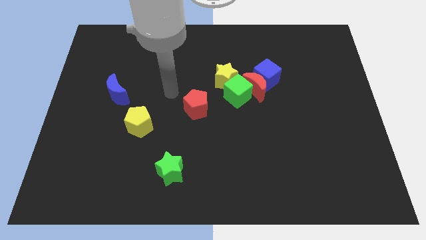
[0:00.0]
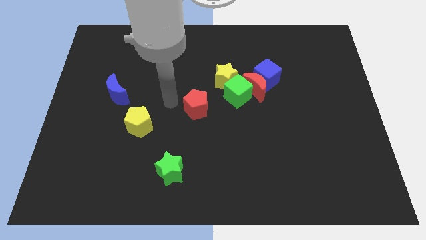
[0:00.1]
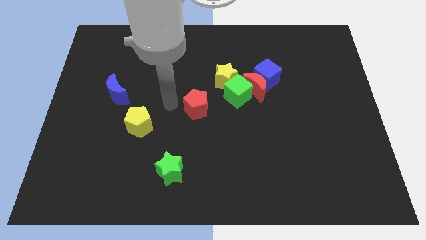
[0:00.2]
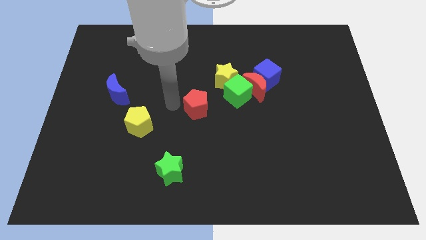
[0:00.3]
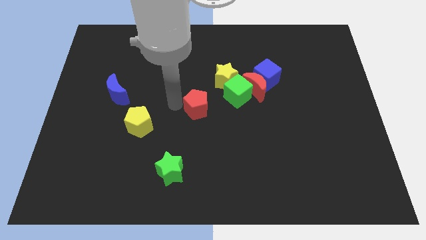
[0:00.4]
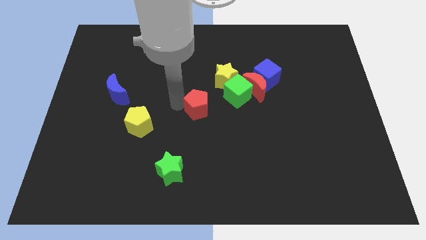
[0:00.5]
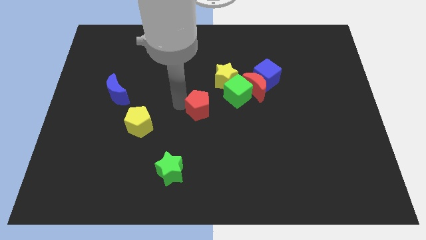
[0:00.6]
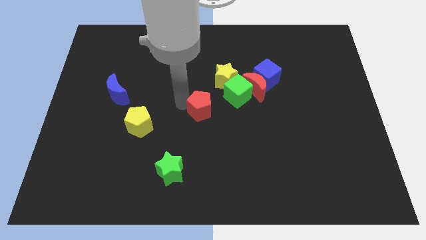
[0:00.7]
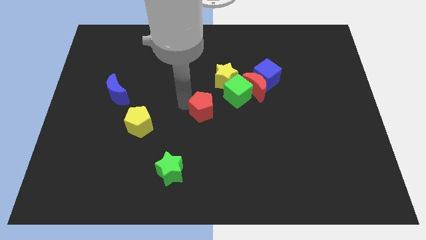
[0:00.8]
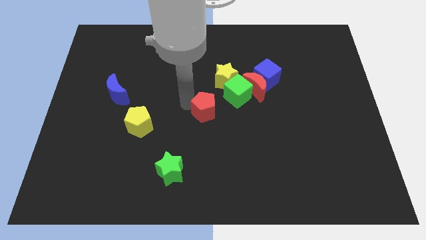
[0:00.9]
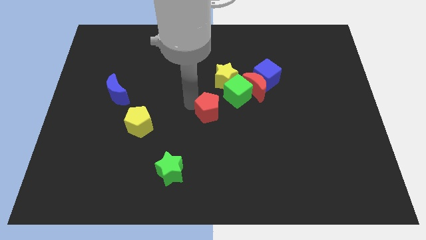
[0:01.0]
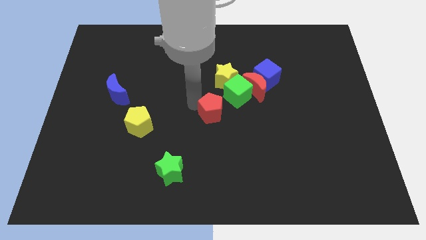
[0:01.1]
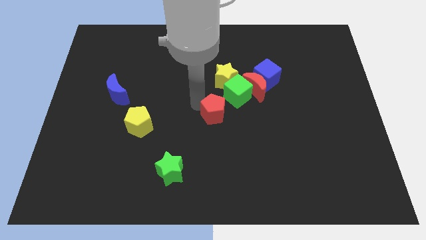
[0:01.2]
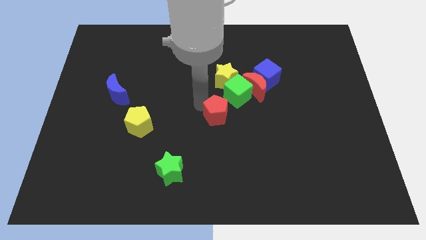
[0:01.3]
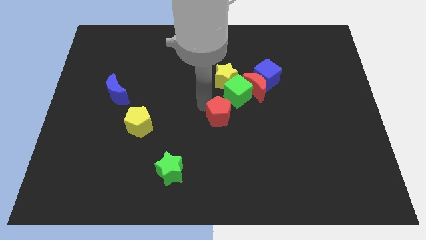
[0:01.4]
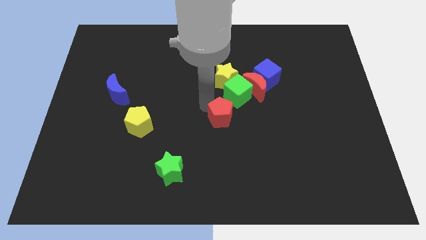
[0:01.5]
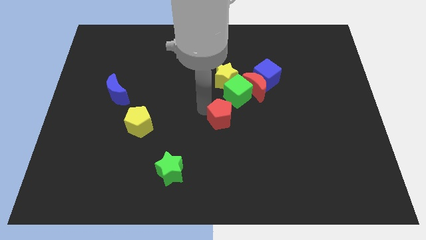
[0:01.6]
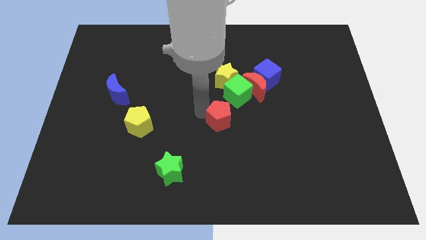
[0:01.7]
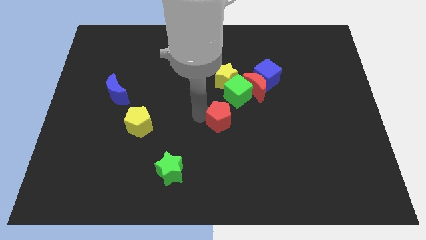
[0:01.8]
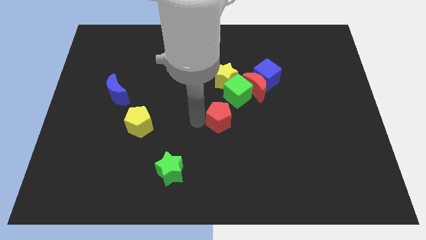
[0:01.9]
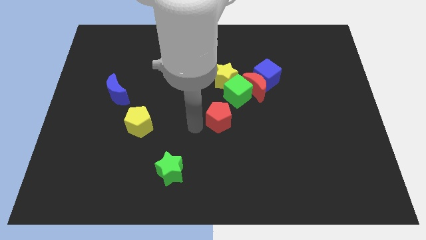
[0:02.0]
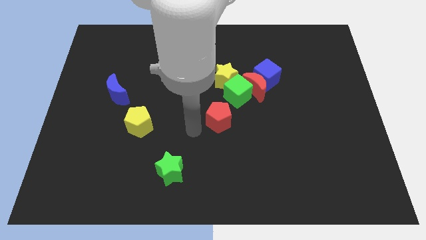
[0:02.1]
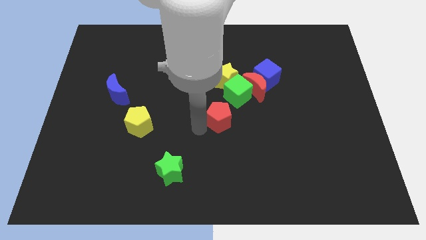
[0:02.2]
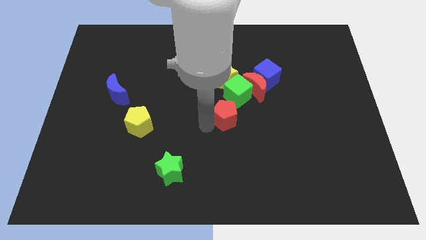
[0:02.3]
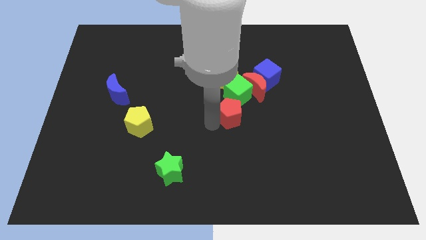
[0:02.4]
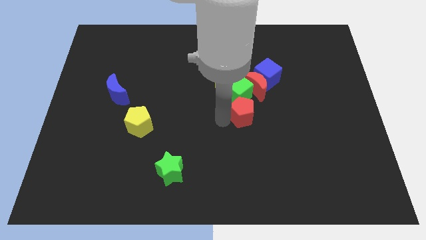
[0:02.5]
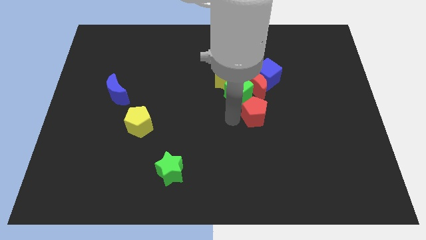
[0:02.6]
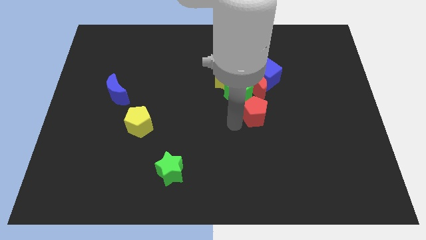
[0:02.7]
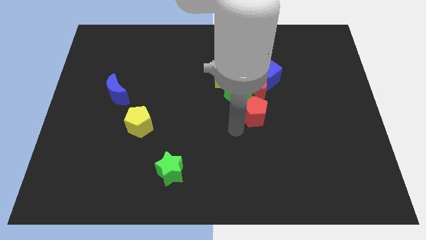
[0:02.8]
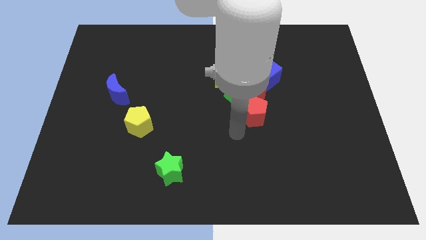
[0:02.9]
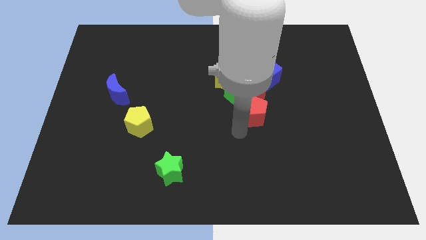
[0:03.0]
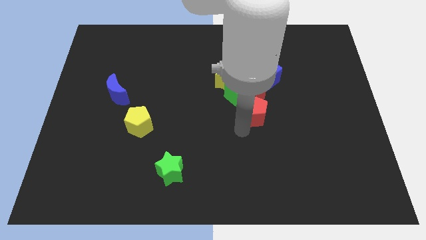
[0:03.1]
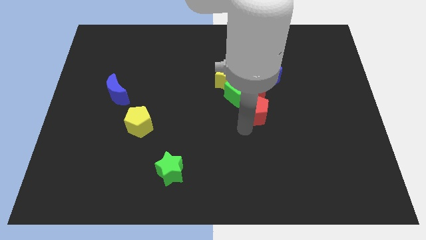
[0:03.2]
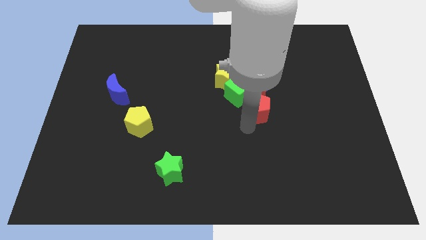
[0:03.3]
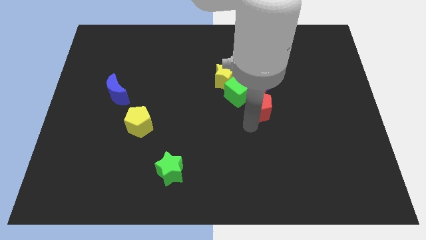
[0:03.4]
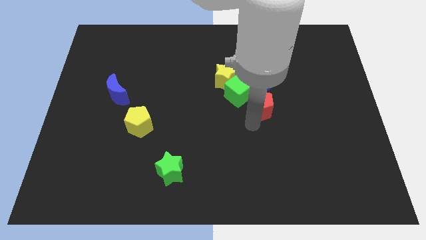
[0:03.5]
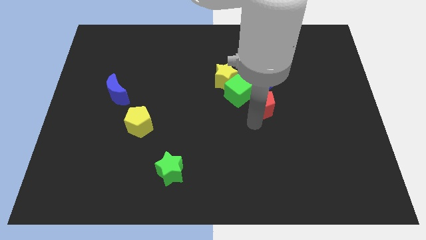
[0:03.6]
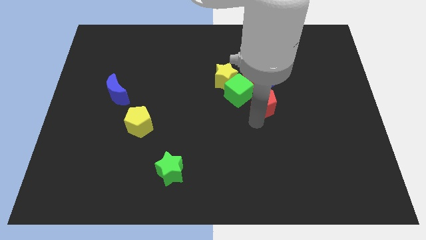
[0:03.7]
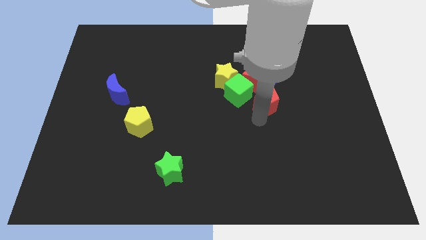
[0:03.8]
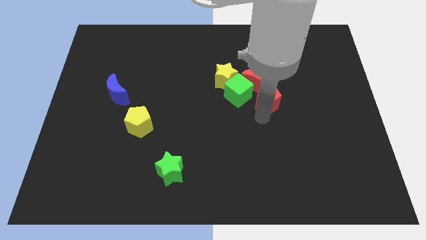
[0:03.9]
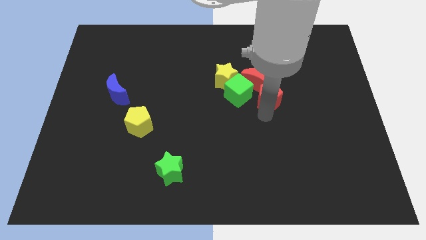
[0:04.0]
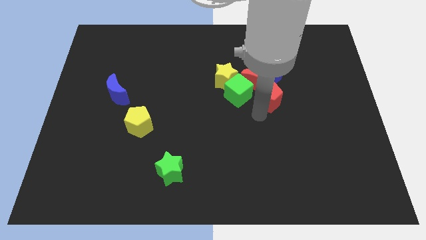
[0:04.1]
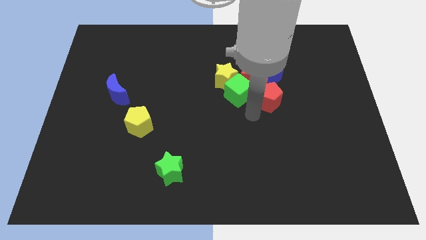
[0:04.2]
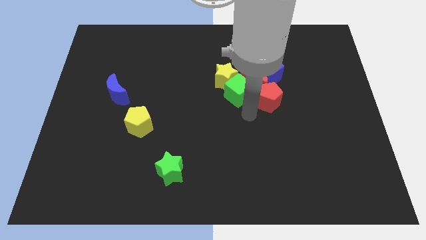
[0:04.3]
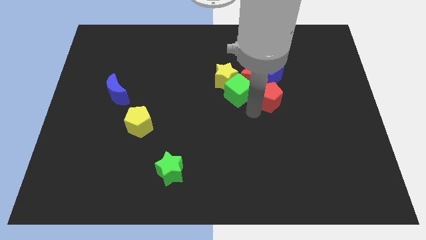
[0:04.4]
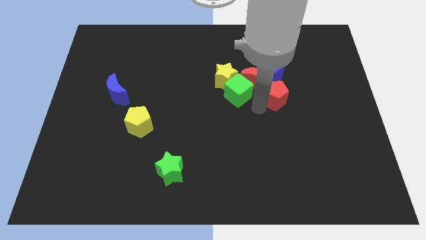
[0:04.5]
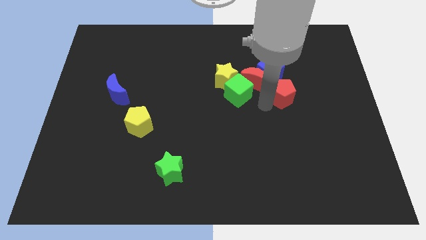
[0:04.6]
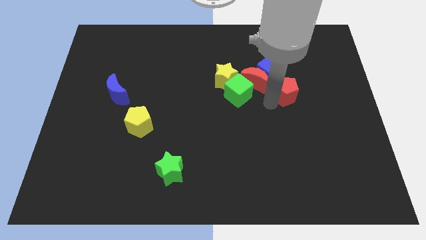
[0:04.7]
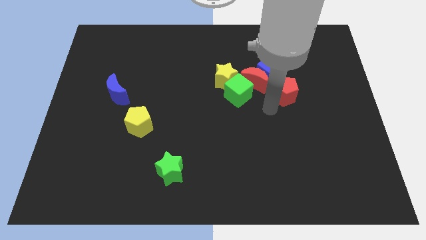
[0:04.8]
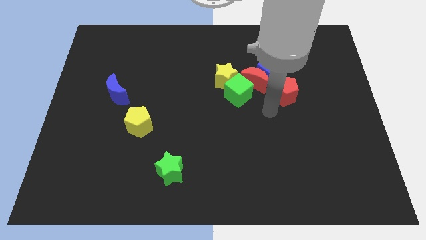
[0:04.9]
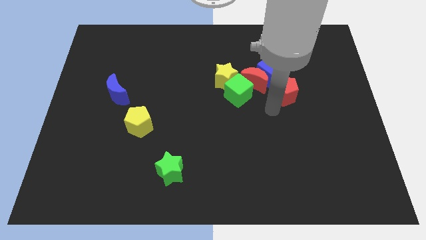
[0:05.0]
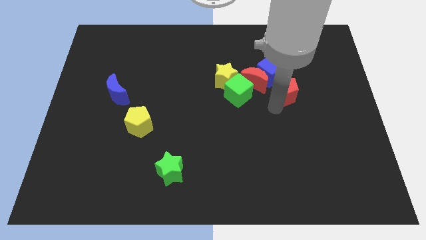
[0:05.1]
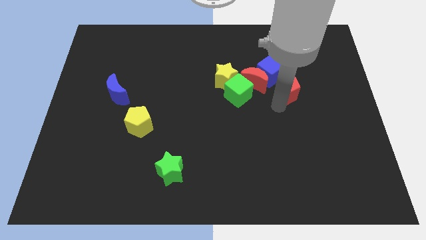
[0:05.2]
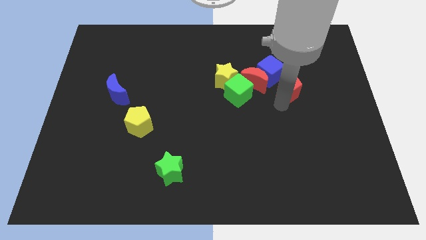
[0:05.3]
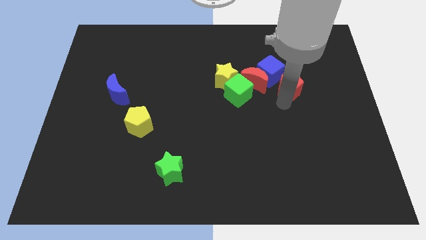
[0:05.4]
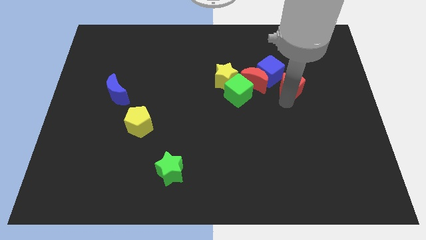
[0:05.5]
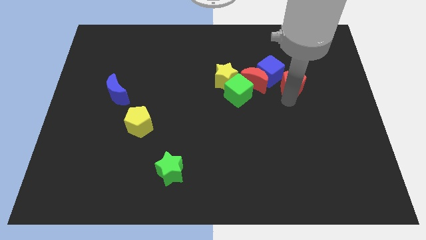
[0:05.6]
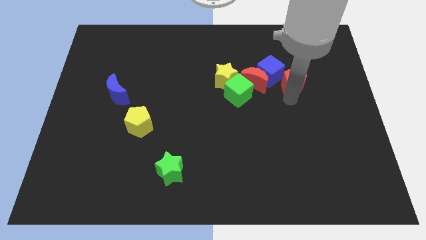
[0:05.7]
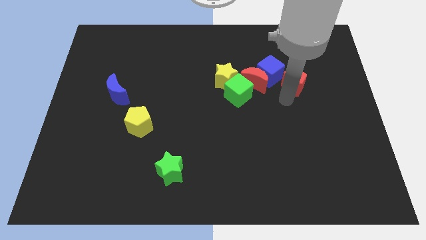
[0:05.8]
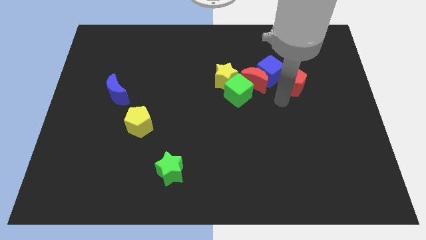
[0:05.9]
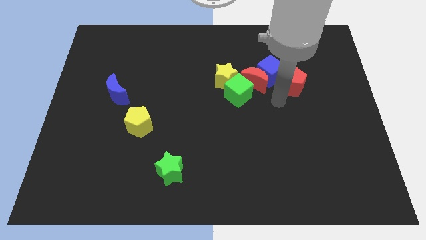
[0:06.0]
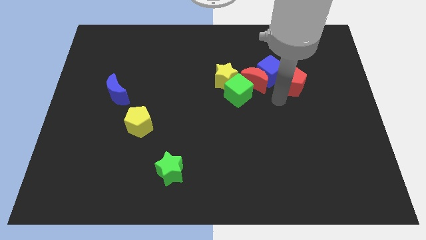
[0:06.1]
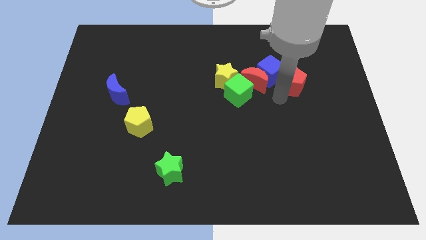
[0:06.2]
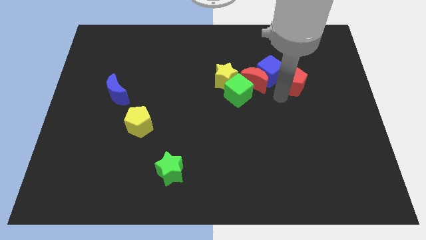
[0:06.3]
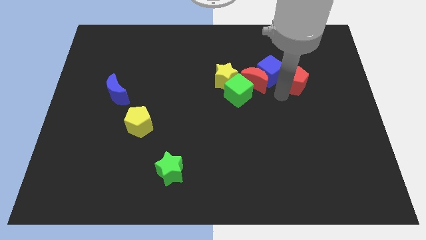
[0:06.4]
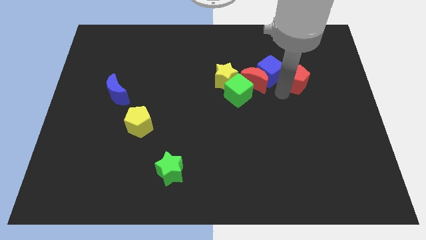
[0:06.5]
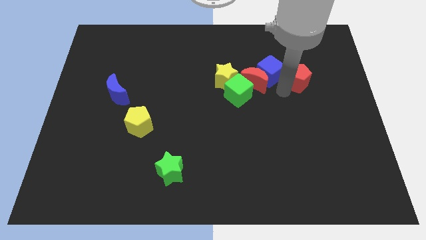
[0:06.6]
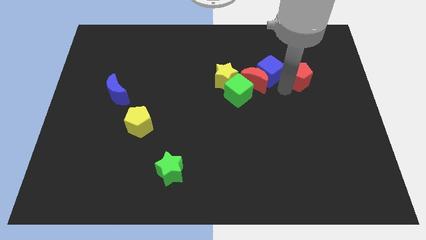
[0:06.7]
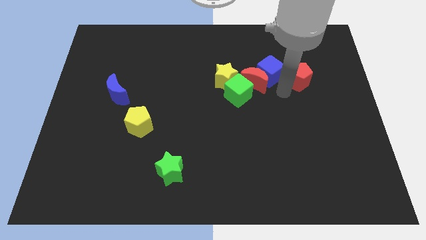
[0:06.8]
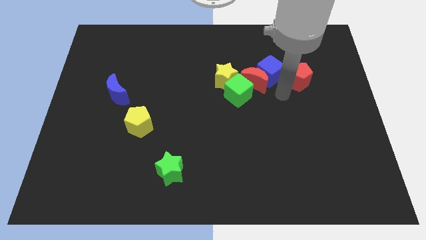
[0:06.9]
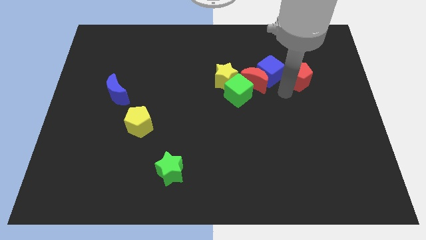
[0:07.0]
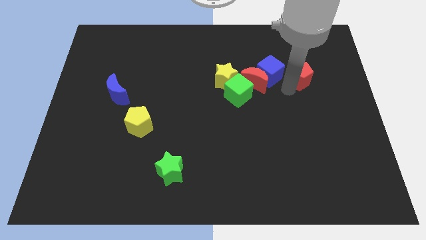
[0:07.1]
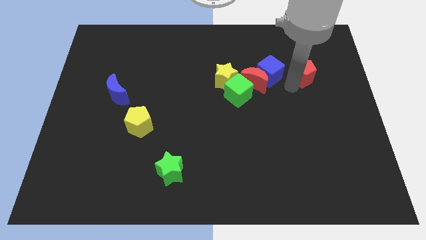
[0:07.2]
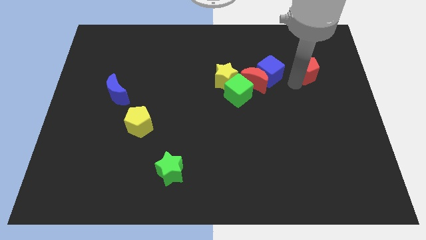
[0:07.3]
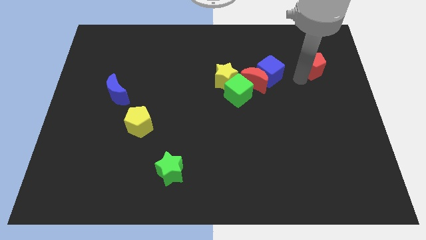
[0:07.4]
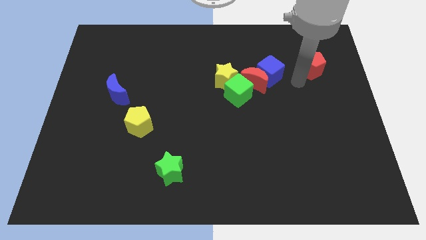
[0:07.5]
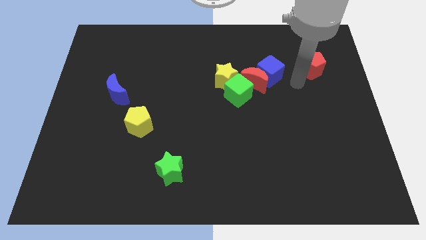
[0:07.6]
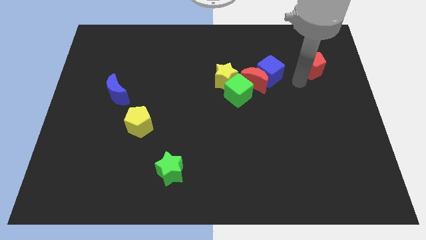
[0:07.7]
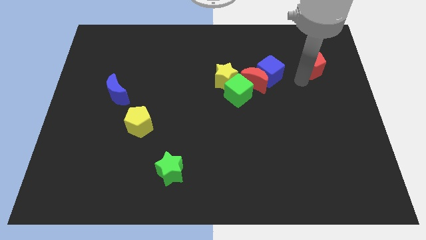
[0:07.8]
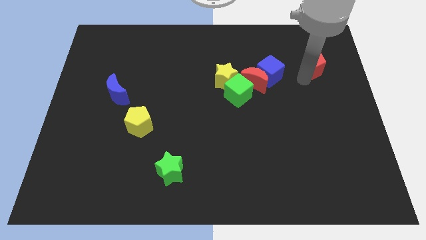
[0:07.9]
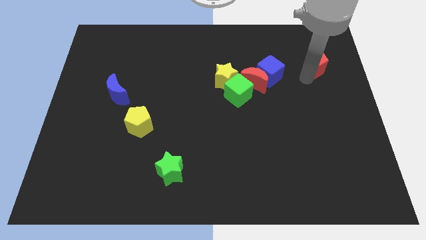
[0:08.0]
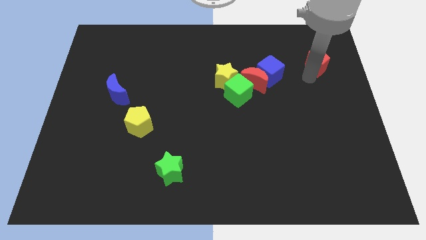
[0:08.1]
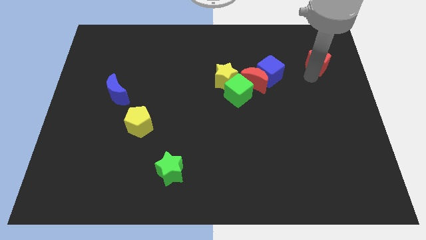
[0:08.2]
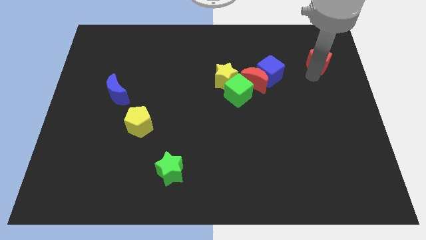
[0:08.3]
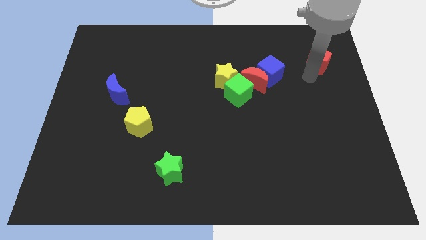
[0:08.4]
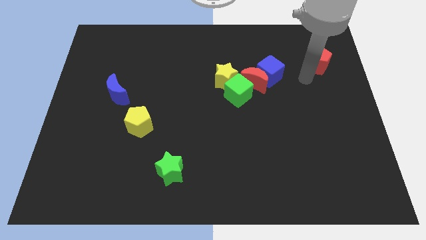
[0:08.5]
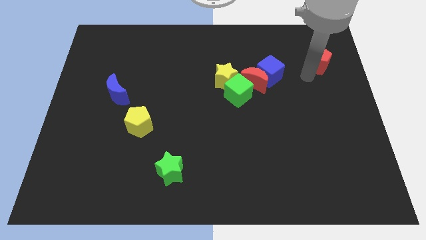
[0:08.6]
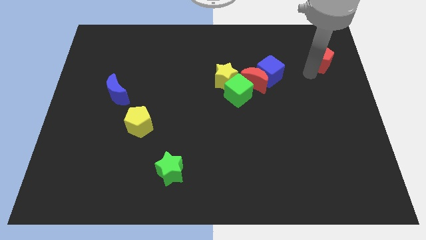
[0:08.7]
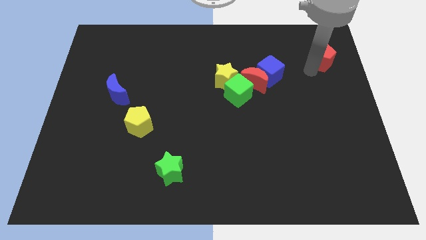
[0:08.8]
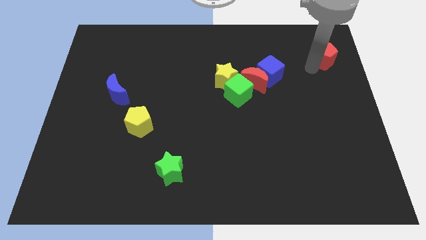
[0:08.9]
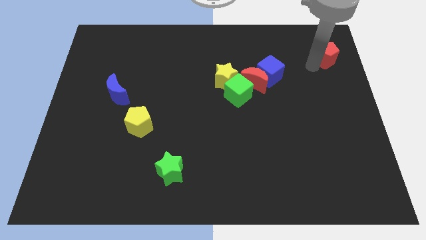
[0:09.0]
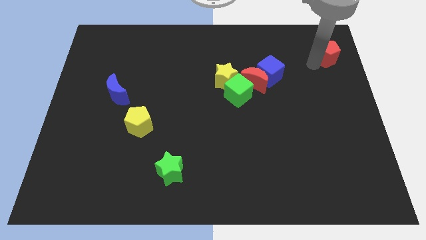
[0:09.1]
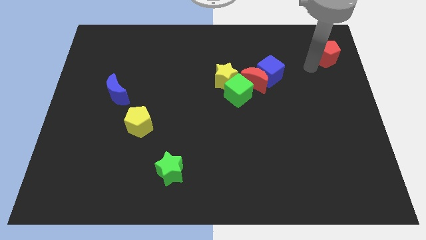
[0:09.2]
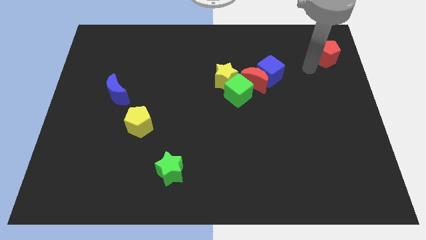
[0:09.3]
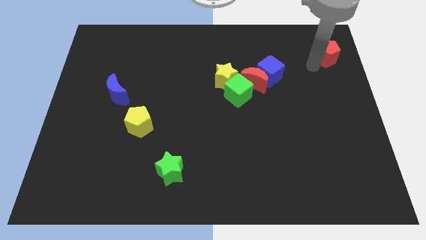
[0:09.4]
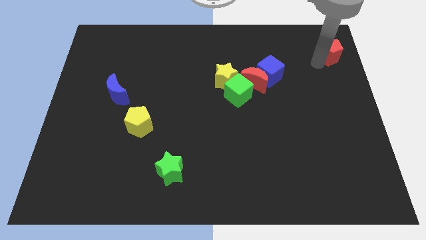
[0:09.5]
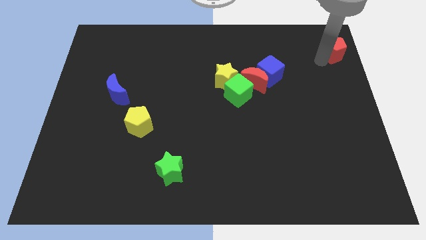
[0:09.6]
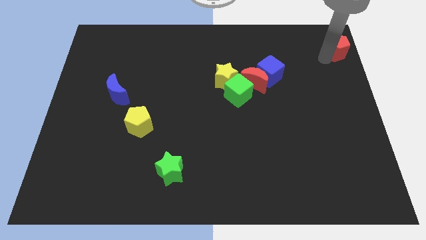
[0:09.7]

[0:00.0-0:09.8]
slide the red pentagon to the upper right corner
